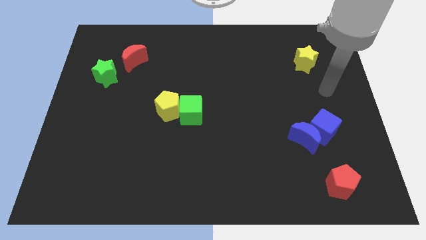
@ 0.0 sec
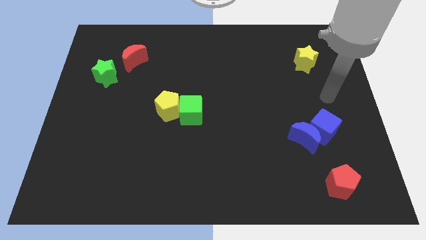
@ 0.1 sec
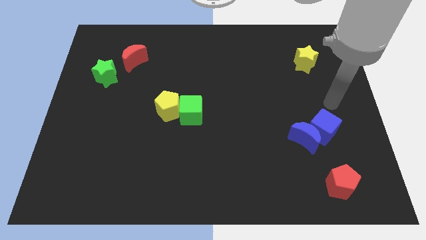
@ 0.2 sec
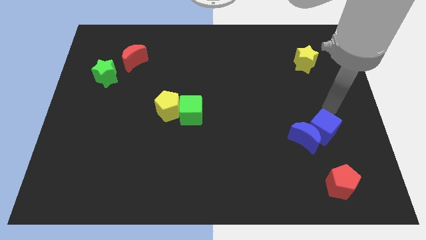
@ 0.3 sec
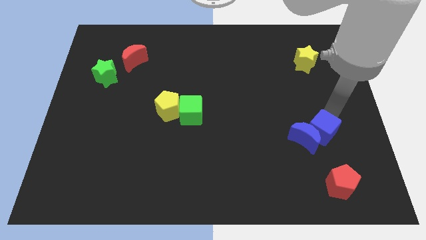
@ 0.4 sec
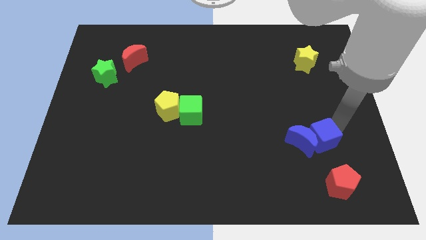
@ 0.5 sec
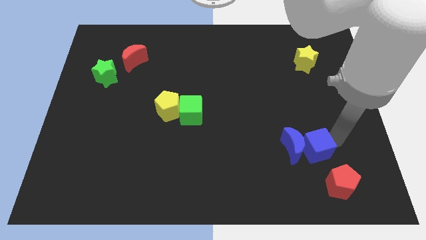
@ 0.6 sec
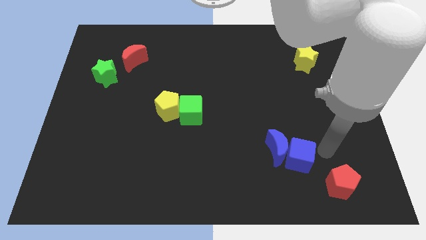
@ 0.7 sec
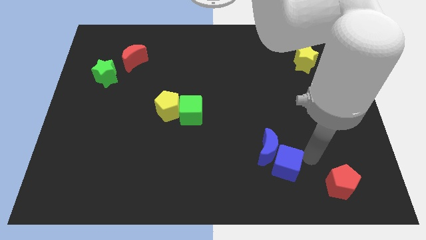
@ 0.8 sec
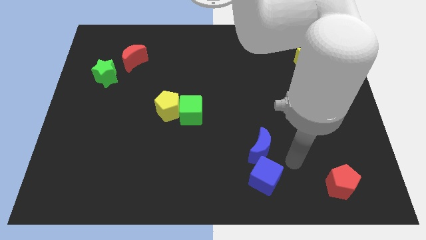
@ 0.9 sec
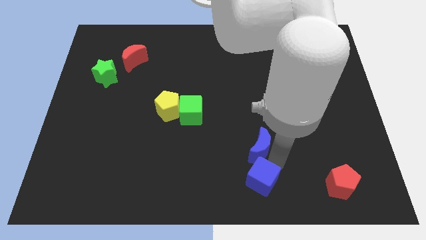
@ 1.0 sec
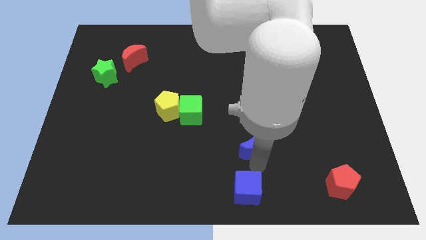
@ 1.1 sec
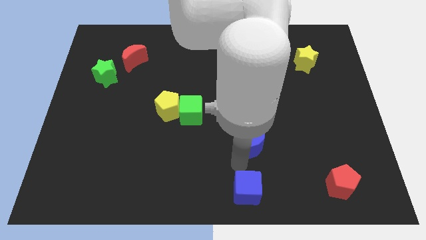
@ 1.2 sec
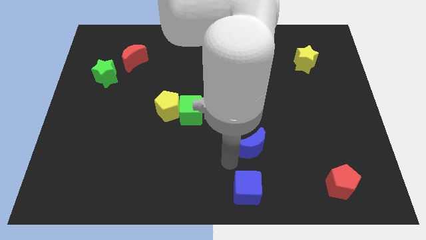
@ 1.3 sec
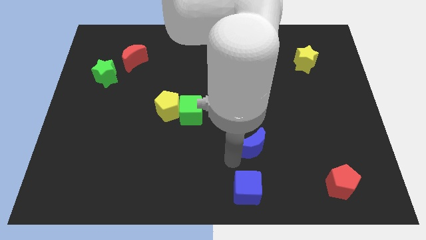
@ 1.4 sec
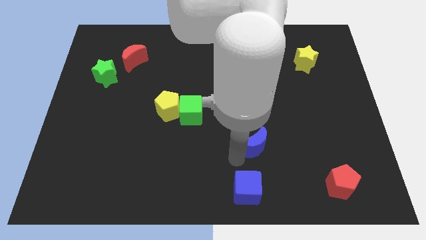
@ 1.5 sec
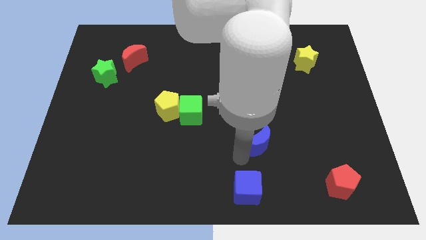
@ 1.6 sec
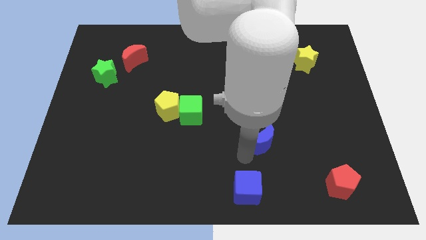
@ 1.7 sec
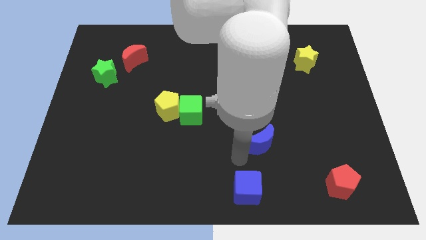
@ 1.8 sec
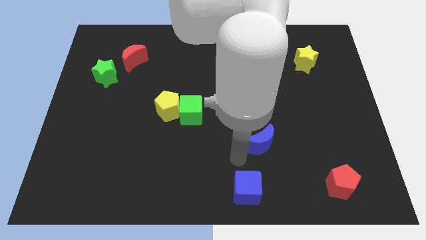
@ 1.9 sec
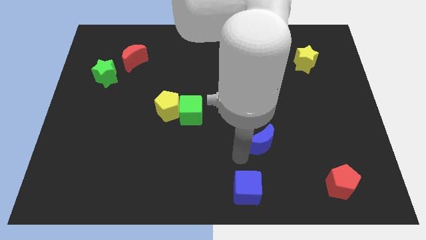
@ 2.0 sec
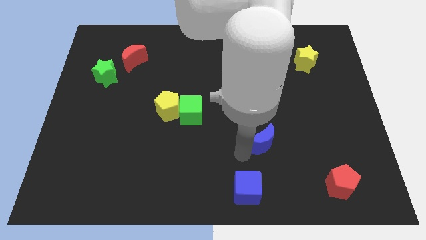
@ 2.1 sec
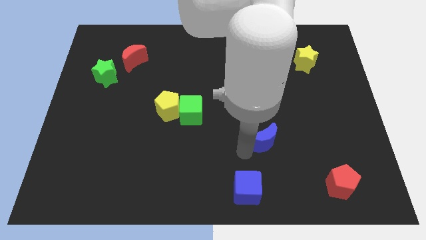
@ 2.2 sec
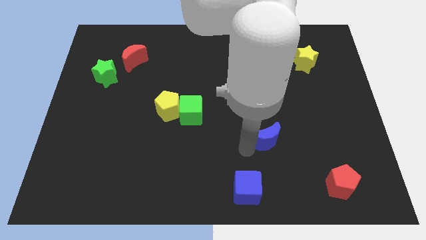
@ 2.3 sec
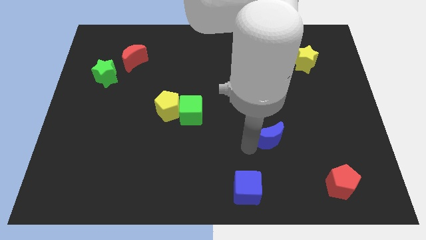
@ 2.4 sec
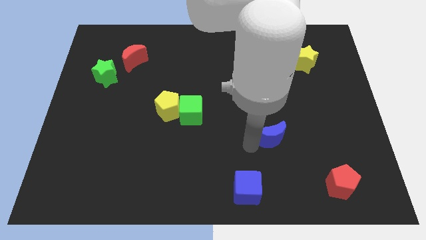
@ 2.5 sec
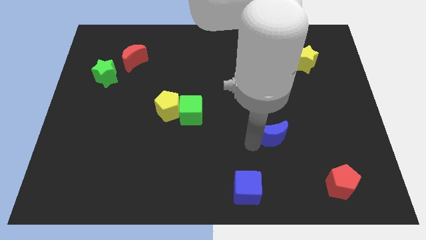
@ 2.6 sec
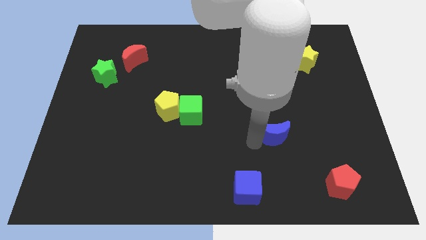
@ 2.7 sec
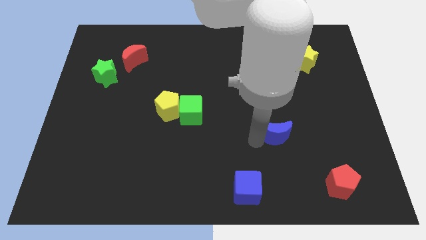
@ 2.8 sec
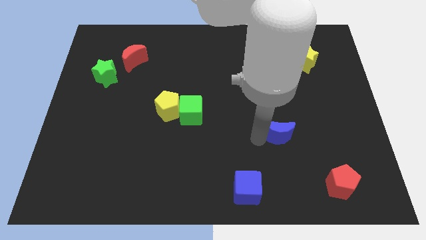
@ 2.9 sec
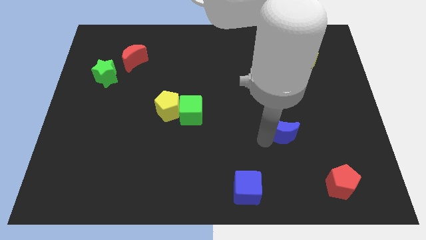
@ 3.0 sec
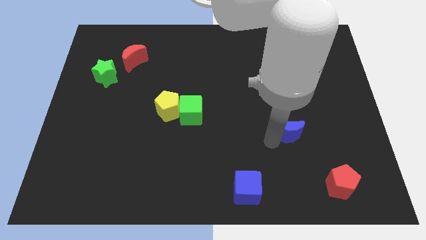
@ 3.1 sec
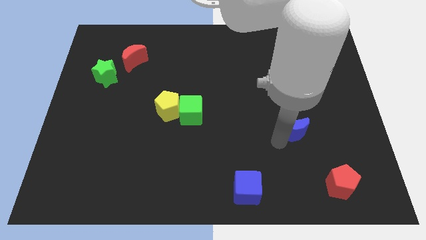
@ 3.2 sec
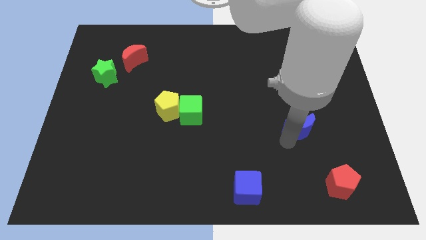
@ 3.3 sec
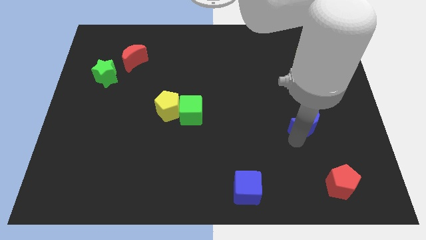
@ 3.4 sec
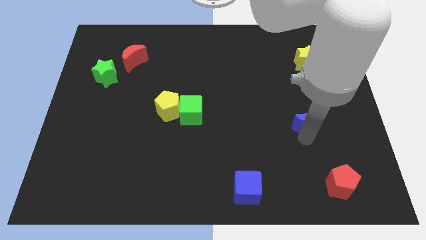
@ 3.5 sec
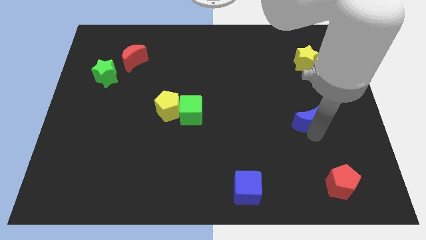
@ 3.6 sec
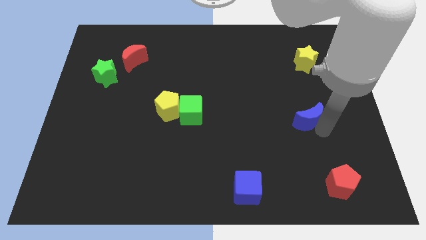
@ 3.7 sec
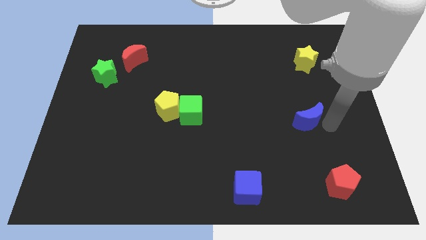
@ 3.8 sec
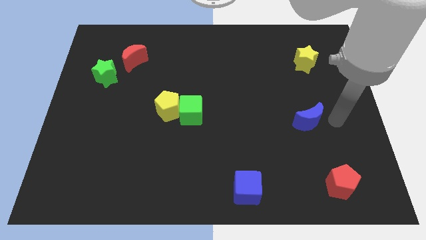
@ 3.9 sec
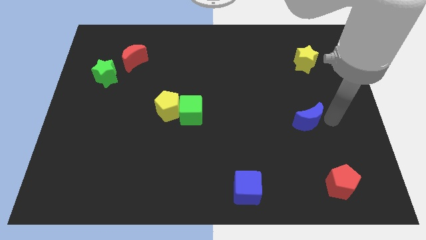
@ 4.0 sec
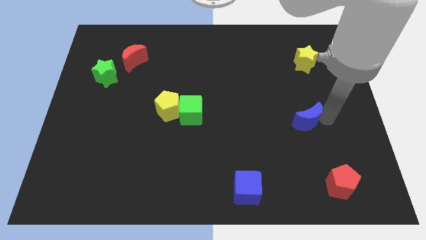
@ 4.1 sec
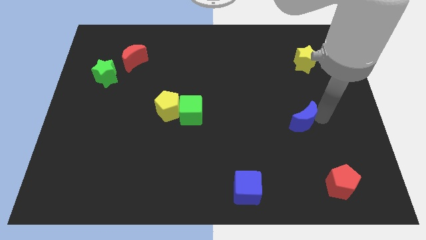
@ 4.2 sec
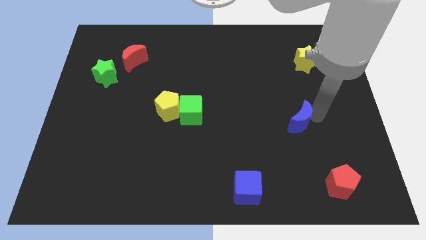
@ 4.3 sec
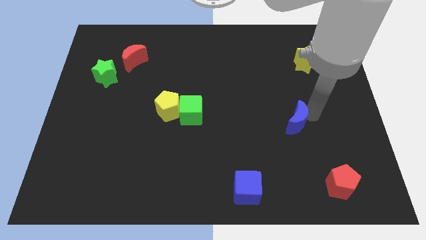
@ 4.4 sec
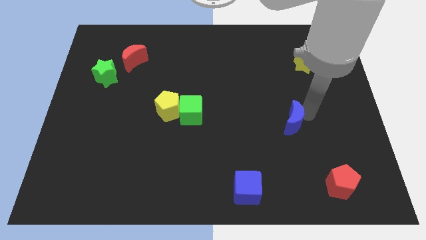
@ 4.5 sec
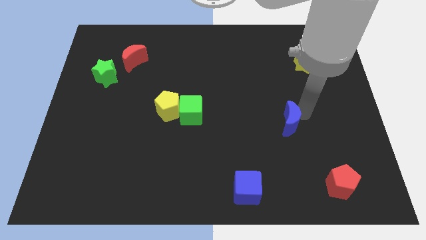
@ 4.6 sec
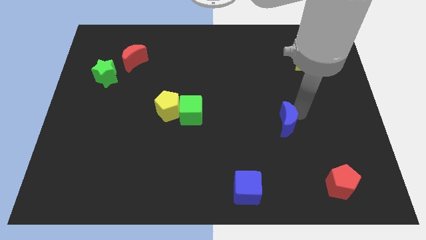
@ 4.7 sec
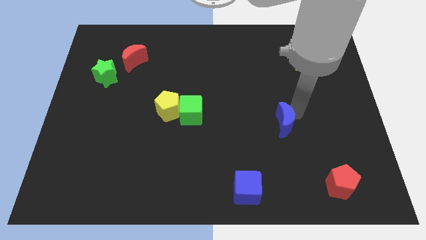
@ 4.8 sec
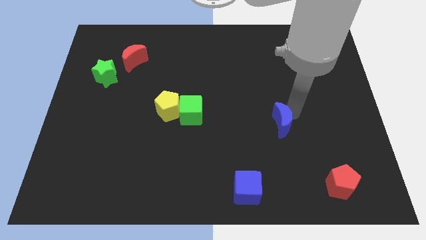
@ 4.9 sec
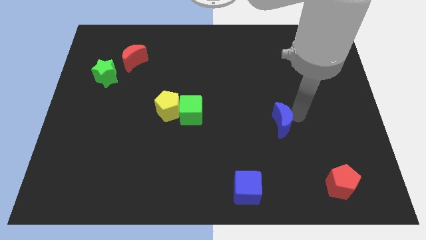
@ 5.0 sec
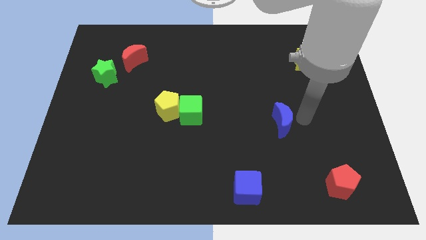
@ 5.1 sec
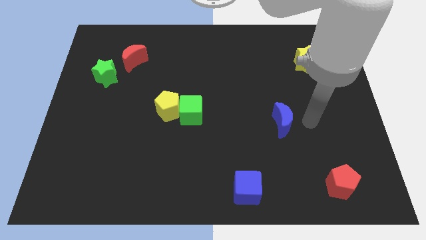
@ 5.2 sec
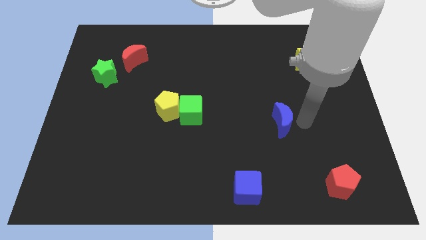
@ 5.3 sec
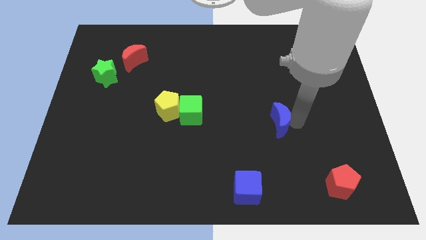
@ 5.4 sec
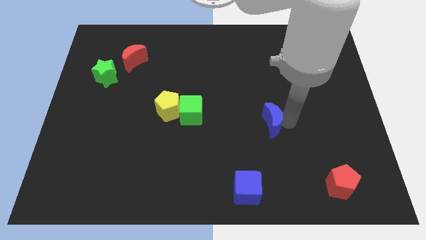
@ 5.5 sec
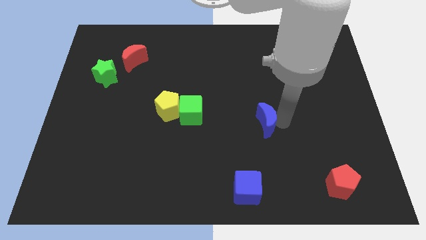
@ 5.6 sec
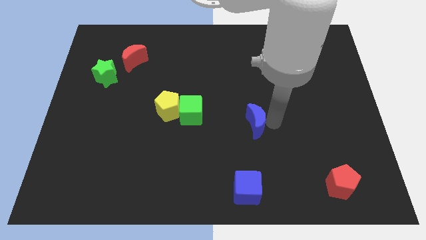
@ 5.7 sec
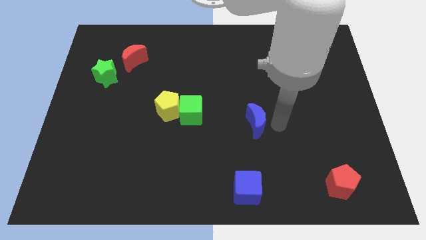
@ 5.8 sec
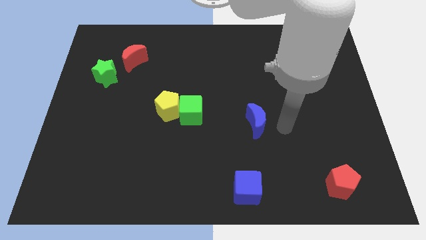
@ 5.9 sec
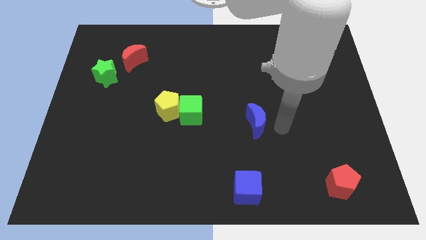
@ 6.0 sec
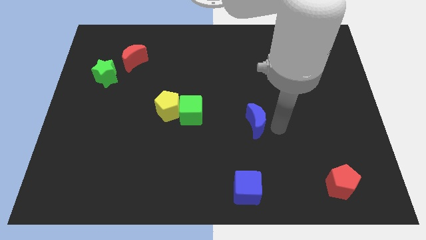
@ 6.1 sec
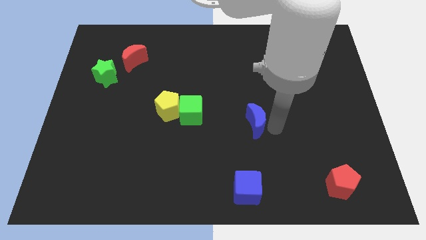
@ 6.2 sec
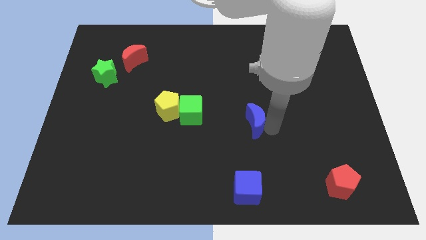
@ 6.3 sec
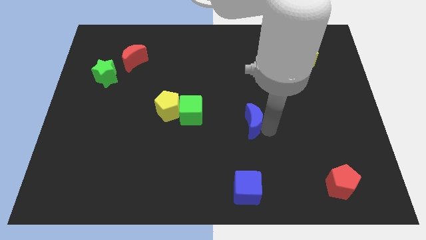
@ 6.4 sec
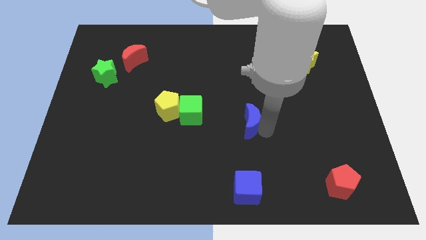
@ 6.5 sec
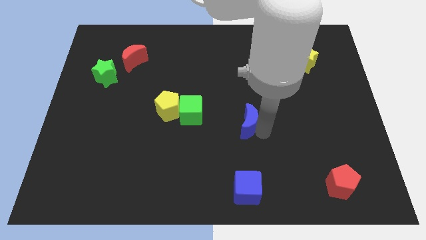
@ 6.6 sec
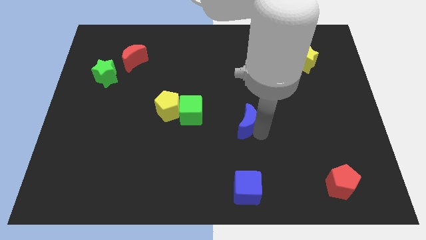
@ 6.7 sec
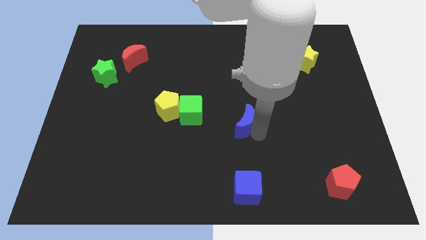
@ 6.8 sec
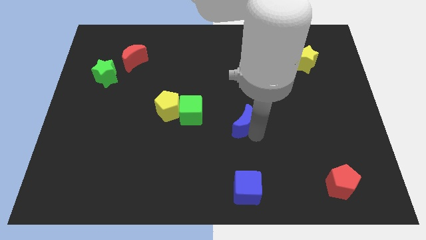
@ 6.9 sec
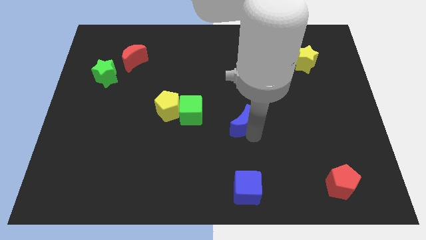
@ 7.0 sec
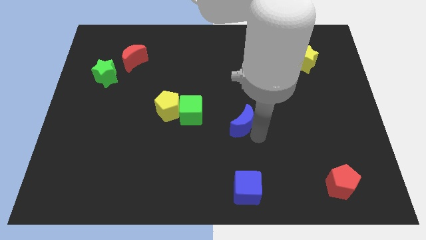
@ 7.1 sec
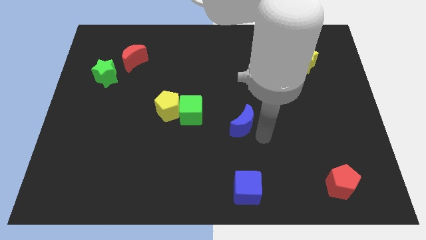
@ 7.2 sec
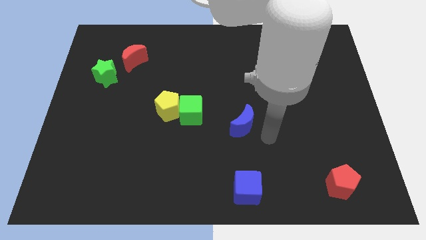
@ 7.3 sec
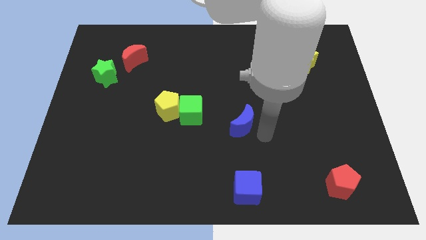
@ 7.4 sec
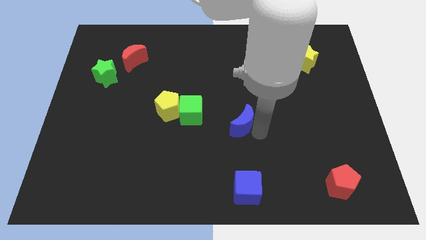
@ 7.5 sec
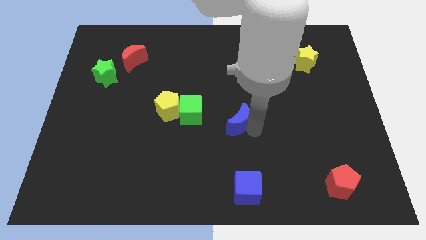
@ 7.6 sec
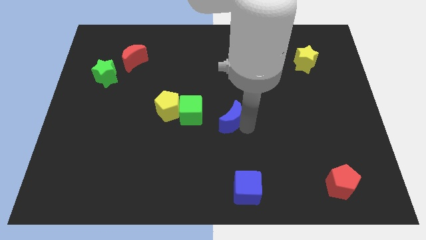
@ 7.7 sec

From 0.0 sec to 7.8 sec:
push the blue moon just right of the yellow pentagon
